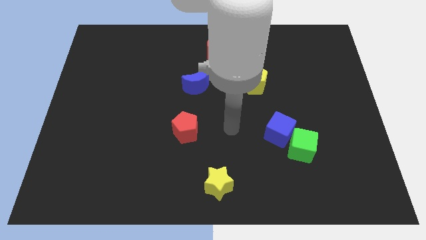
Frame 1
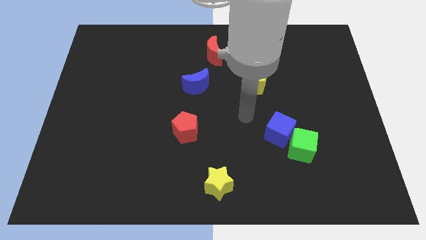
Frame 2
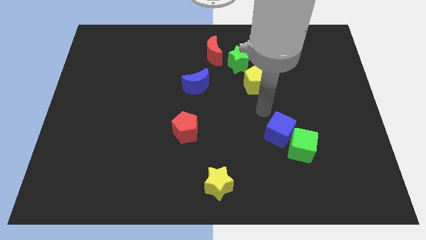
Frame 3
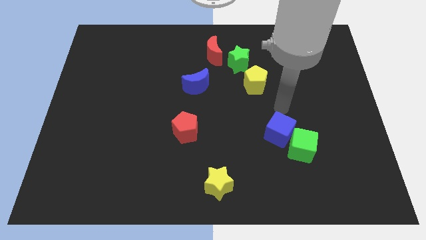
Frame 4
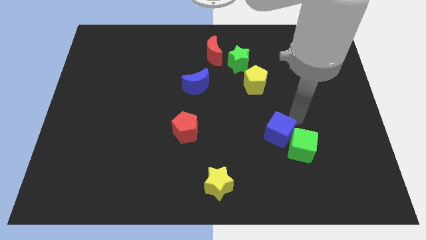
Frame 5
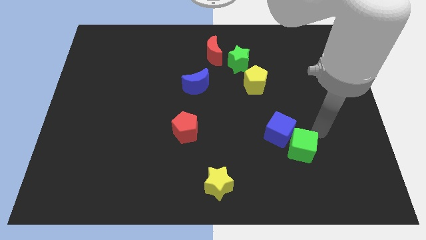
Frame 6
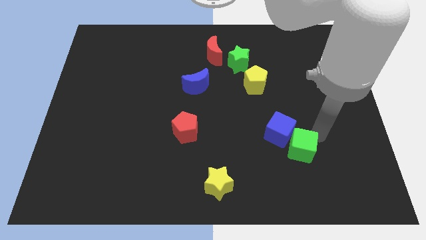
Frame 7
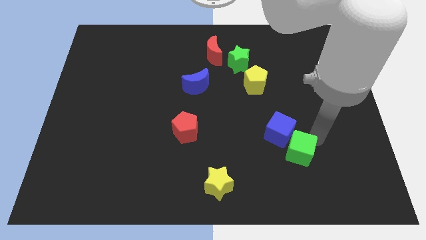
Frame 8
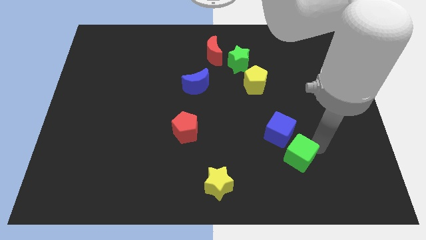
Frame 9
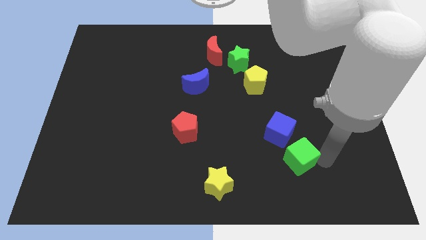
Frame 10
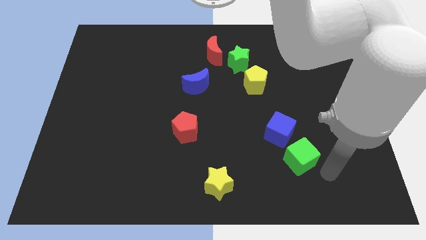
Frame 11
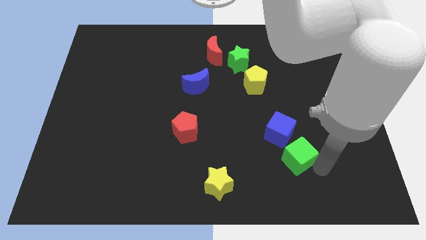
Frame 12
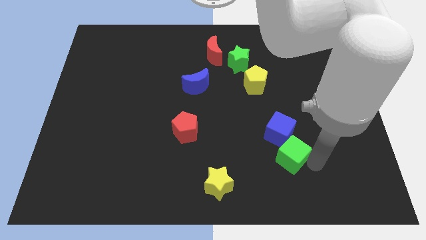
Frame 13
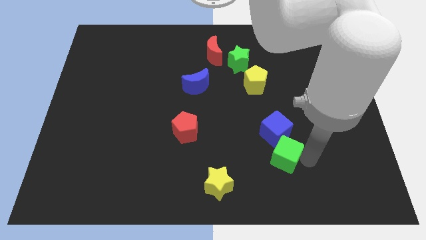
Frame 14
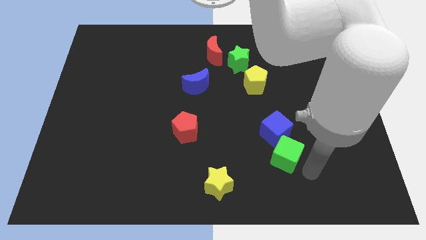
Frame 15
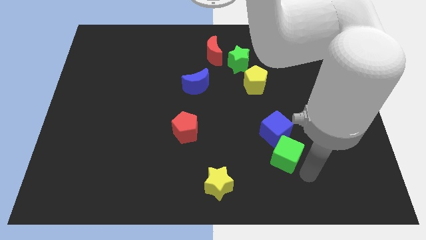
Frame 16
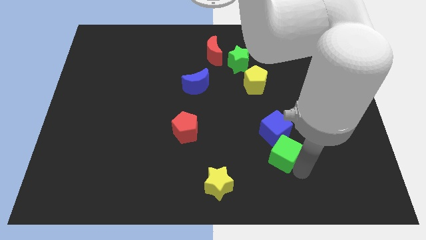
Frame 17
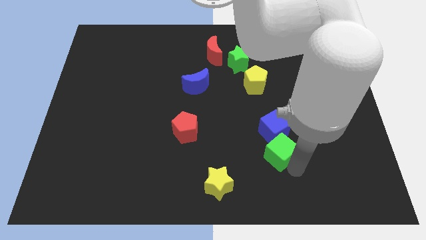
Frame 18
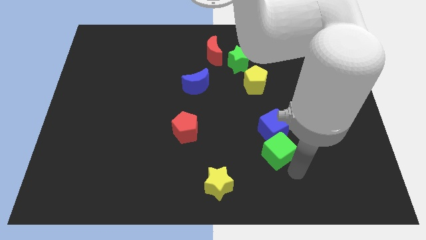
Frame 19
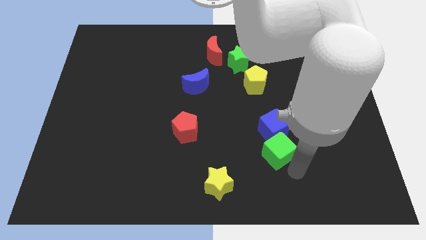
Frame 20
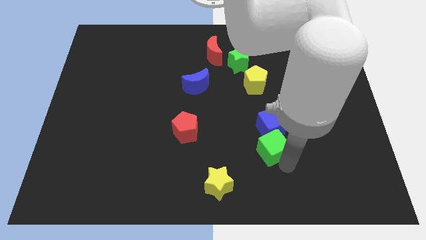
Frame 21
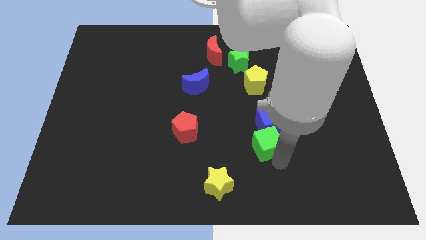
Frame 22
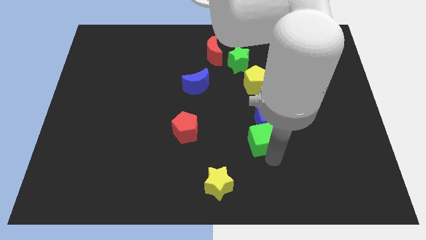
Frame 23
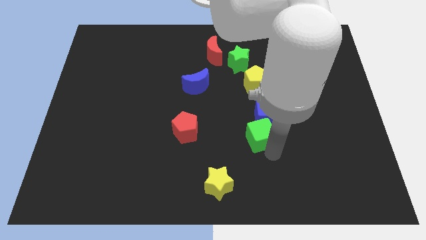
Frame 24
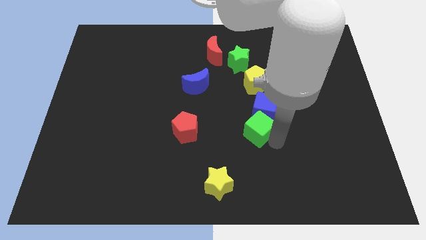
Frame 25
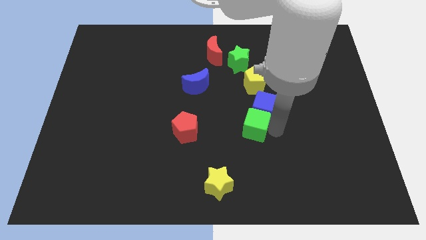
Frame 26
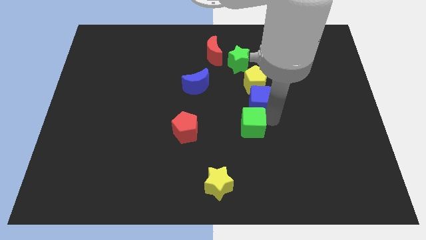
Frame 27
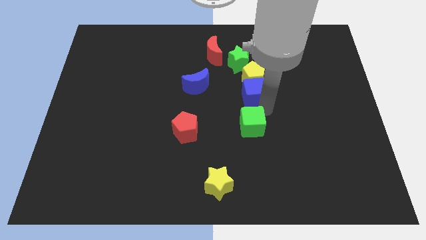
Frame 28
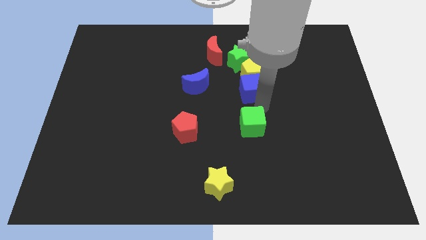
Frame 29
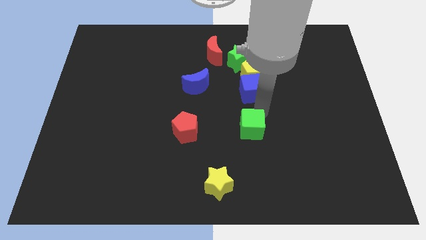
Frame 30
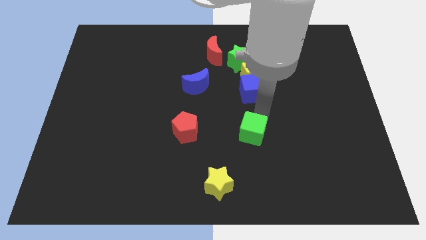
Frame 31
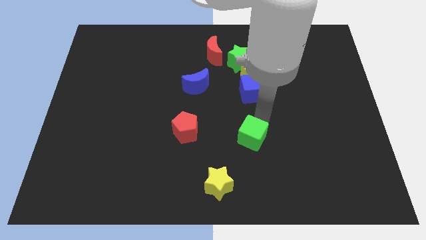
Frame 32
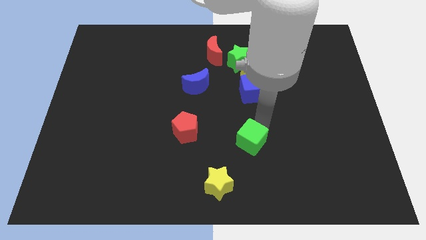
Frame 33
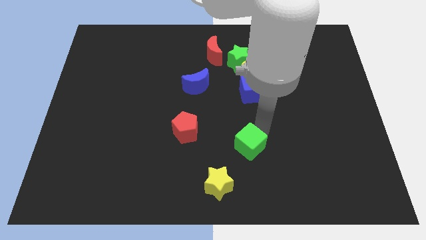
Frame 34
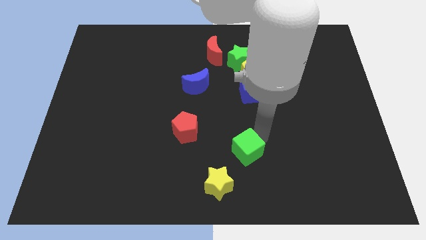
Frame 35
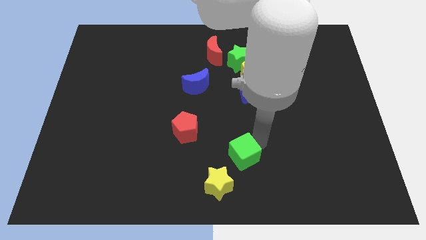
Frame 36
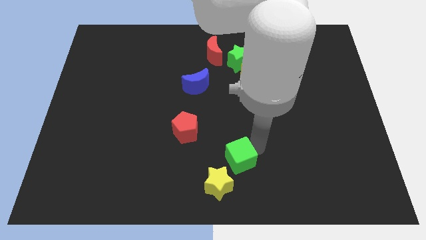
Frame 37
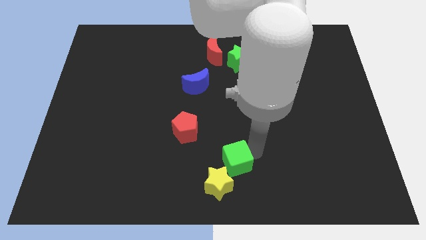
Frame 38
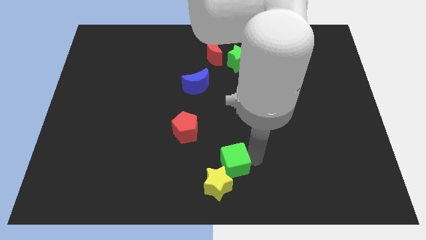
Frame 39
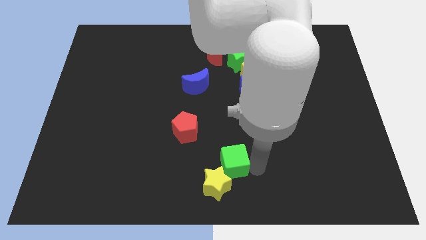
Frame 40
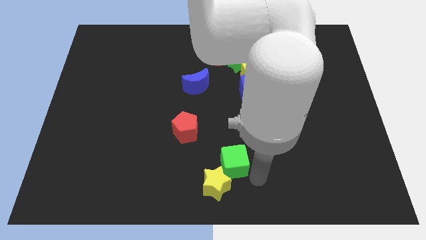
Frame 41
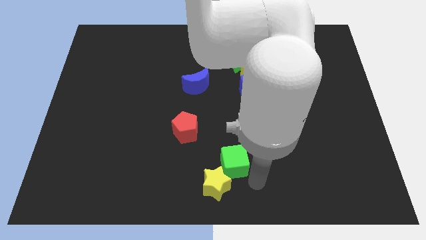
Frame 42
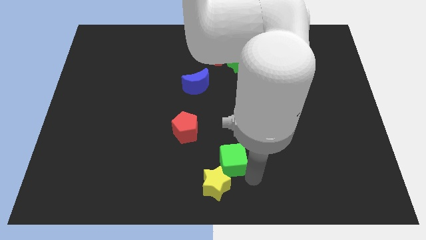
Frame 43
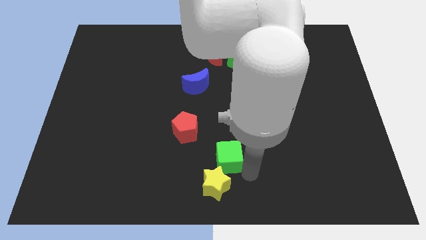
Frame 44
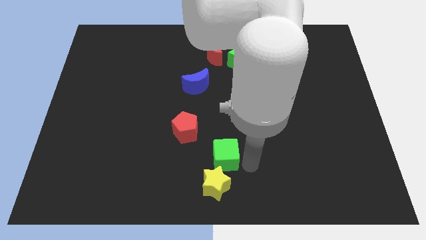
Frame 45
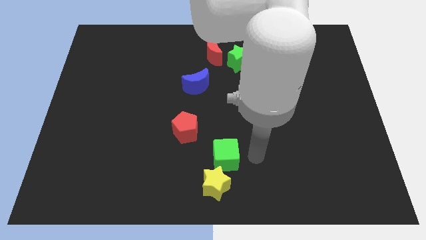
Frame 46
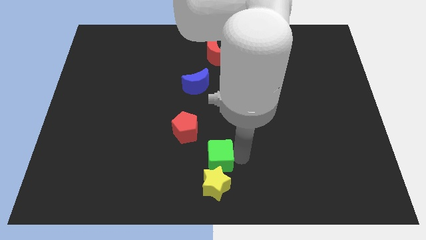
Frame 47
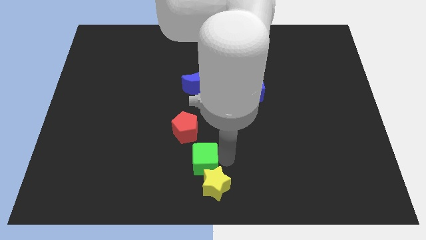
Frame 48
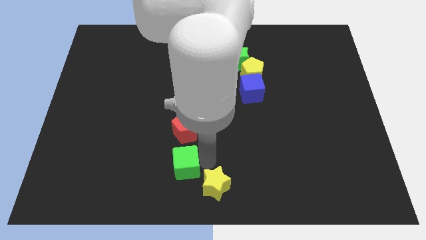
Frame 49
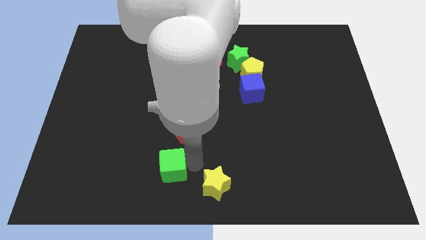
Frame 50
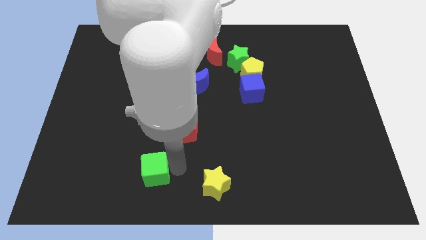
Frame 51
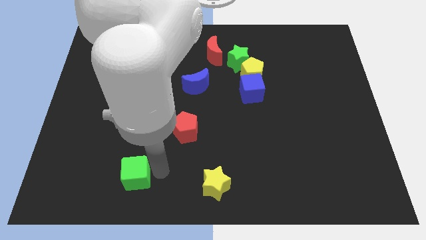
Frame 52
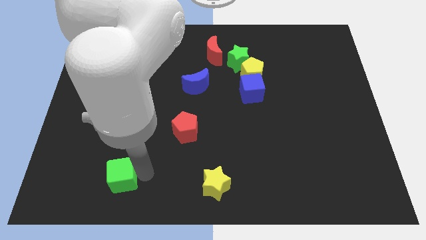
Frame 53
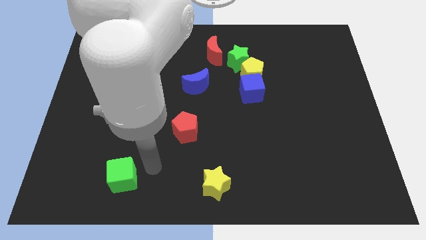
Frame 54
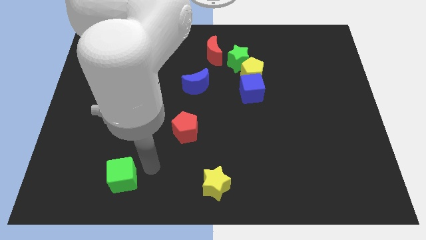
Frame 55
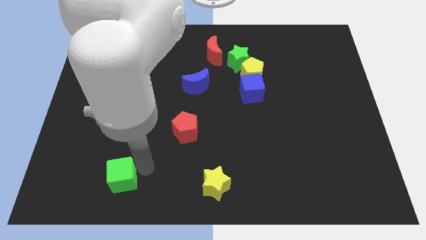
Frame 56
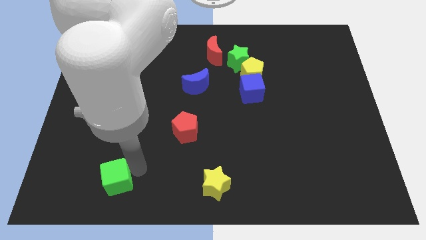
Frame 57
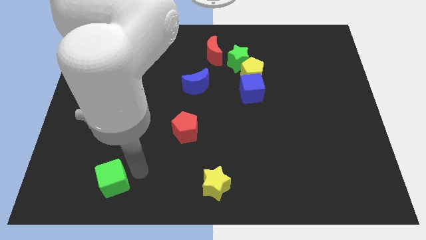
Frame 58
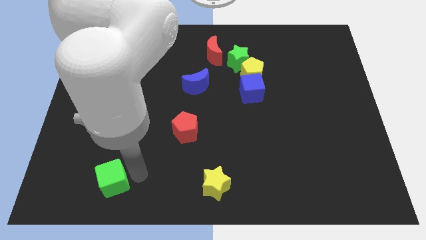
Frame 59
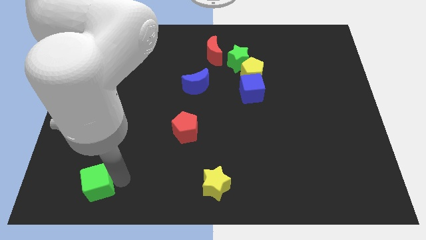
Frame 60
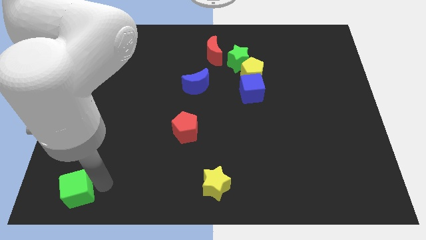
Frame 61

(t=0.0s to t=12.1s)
slide the green cube to the bottom left

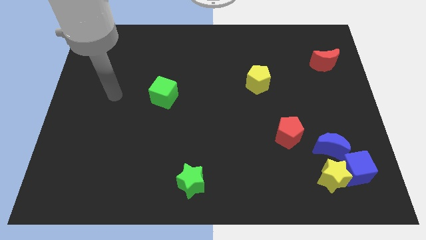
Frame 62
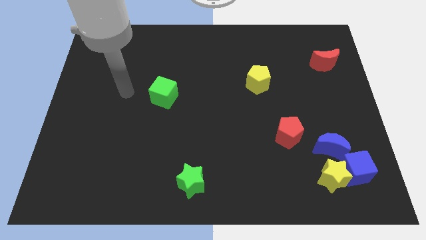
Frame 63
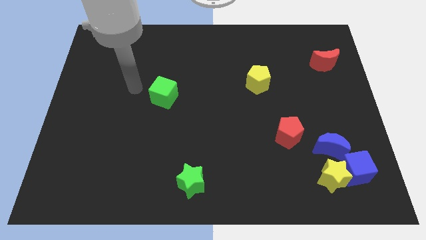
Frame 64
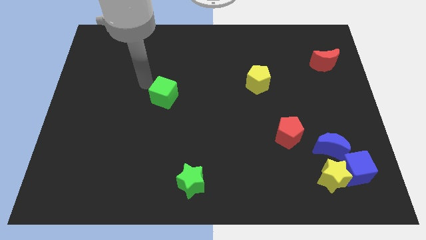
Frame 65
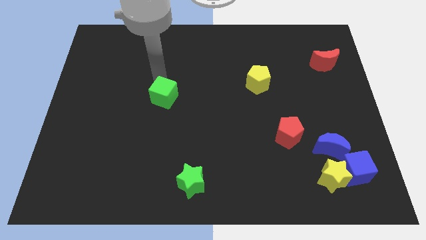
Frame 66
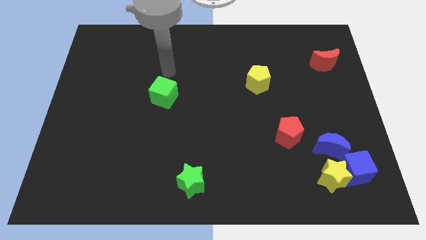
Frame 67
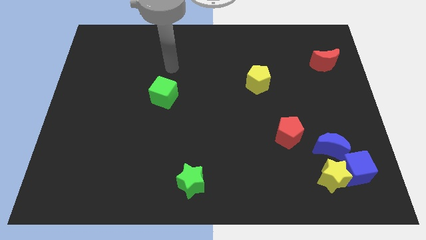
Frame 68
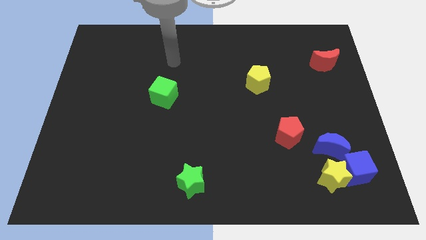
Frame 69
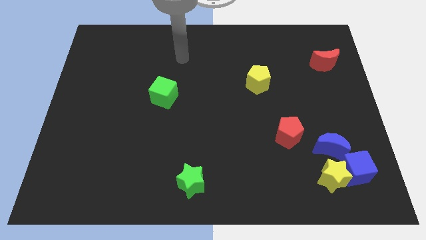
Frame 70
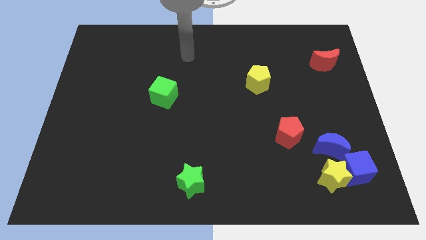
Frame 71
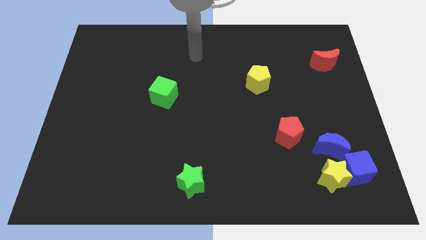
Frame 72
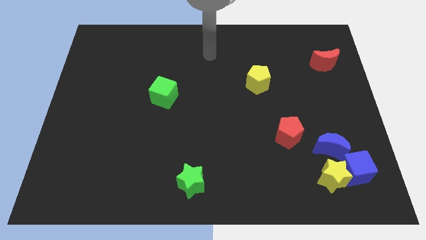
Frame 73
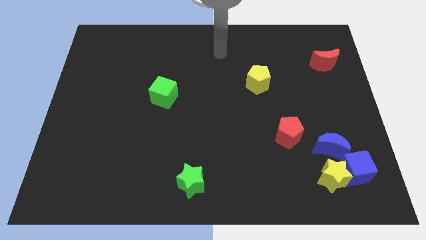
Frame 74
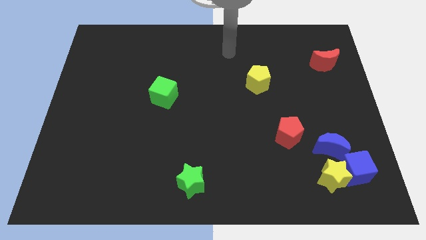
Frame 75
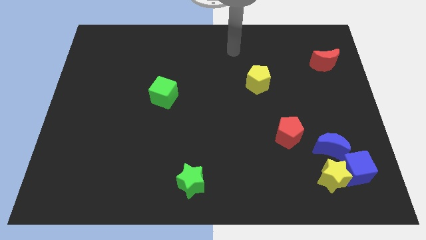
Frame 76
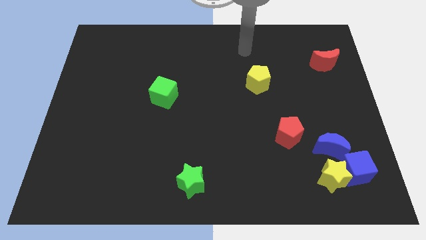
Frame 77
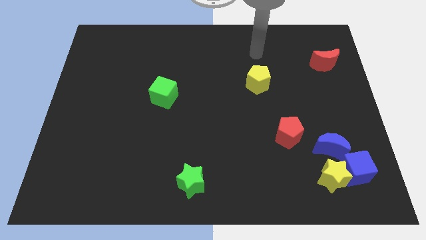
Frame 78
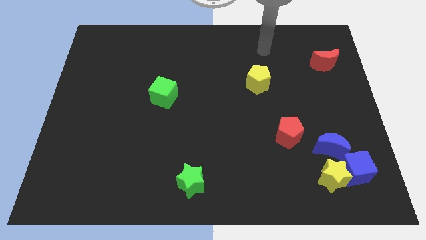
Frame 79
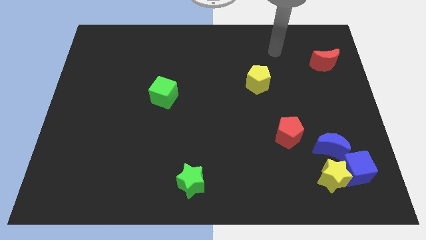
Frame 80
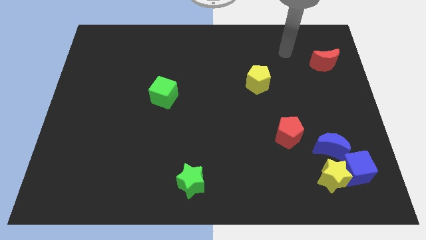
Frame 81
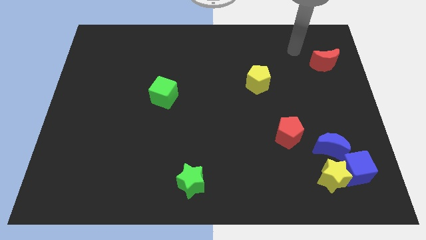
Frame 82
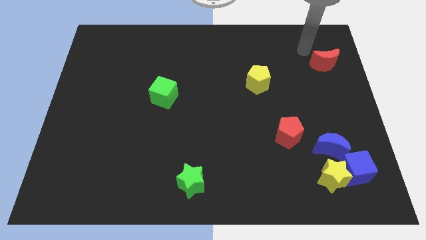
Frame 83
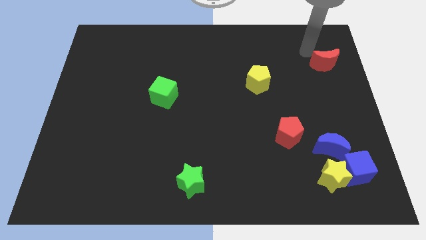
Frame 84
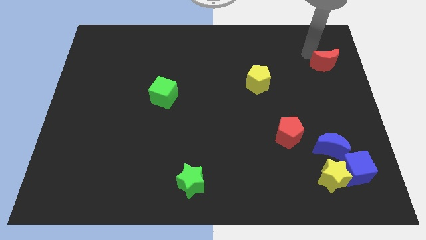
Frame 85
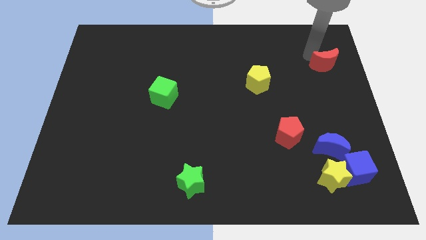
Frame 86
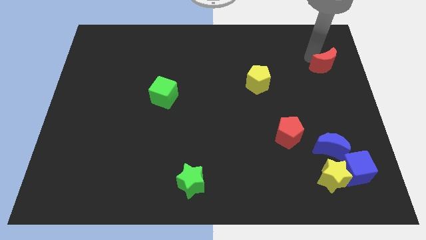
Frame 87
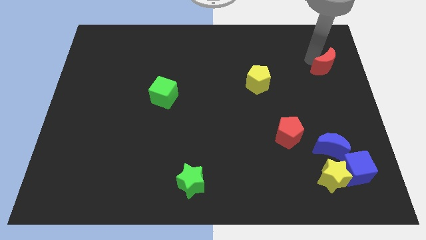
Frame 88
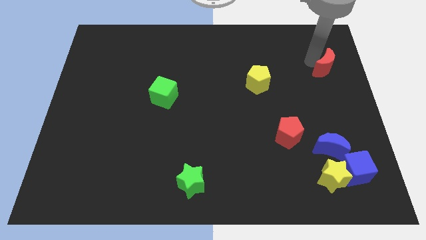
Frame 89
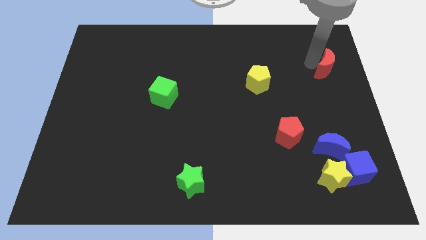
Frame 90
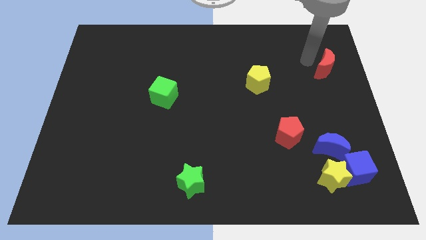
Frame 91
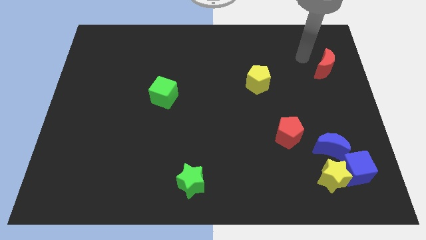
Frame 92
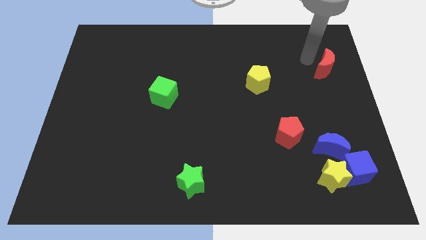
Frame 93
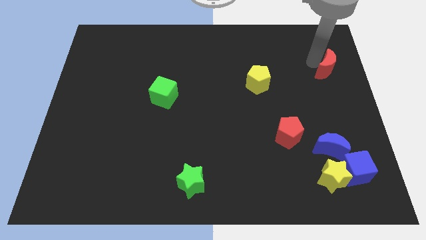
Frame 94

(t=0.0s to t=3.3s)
move the red moon to the right side of the board
